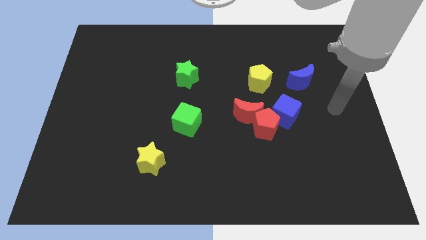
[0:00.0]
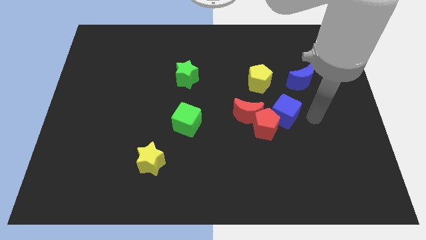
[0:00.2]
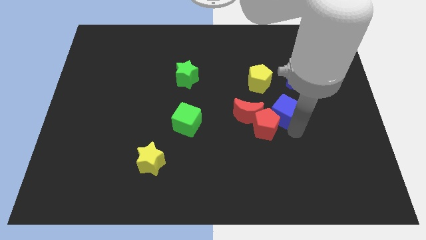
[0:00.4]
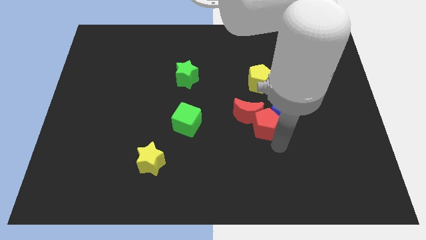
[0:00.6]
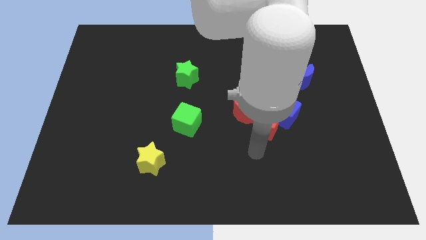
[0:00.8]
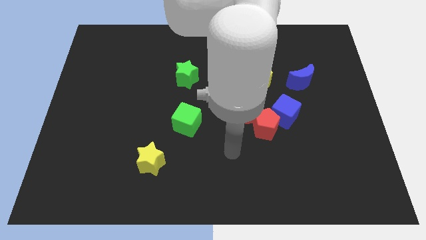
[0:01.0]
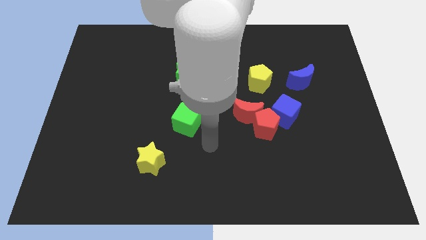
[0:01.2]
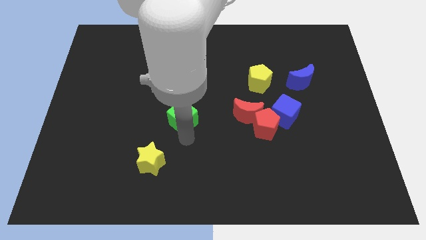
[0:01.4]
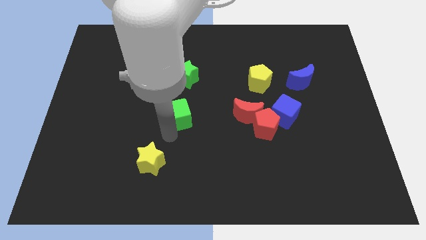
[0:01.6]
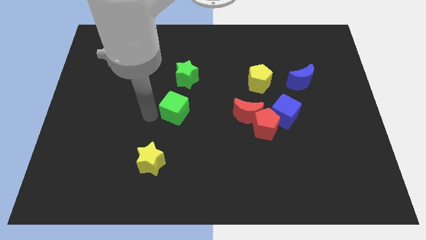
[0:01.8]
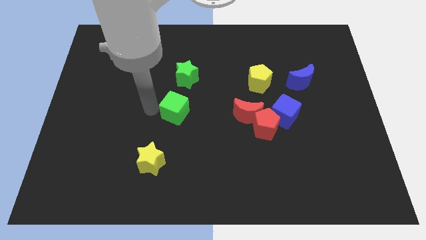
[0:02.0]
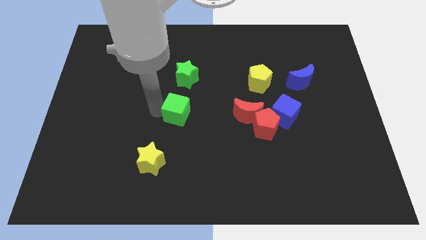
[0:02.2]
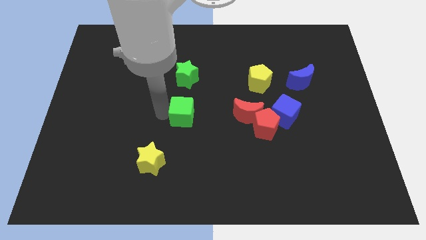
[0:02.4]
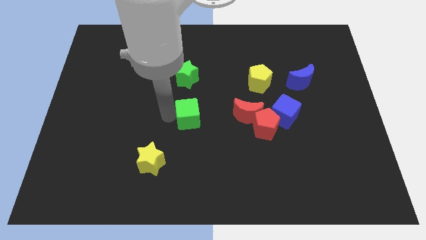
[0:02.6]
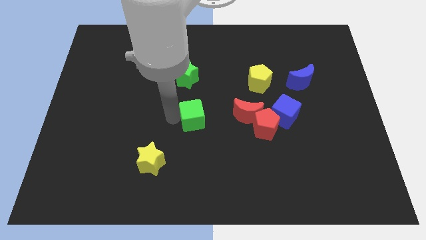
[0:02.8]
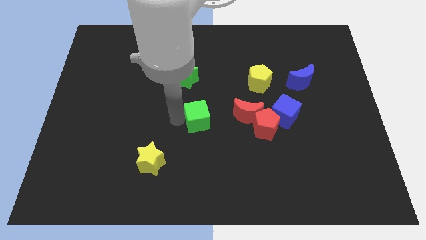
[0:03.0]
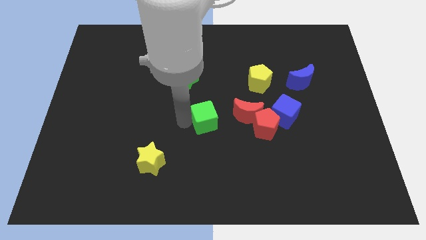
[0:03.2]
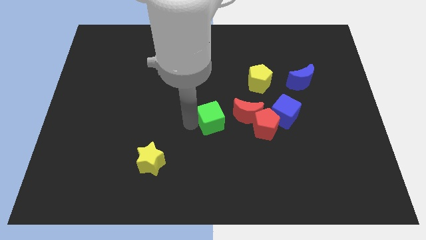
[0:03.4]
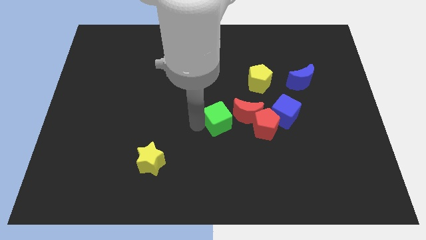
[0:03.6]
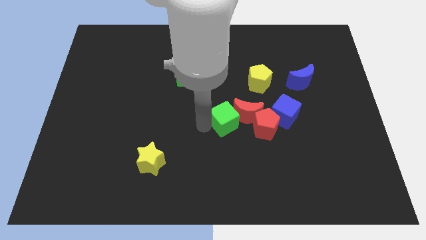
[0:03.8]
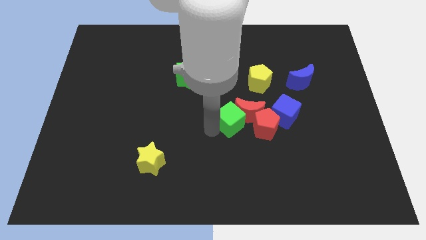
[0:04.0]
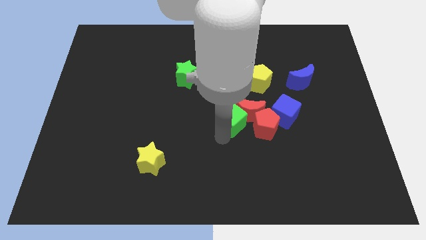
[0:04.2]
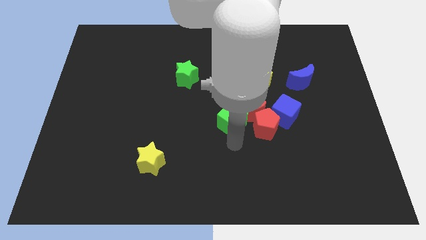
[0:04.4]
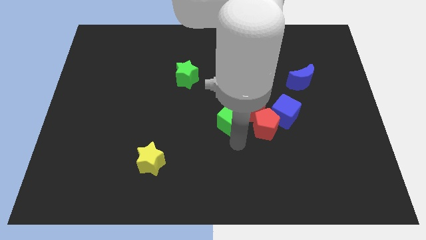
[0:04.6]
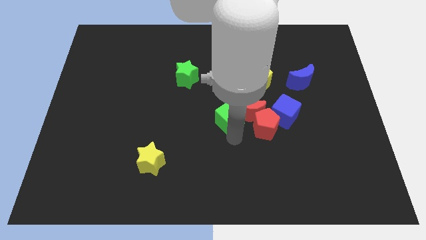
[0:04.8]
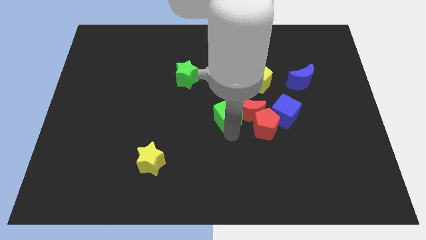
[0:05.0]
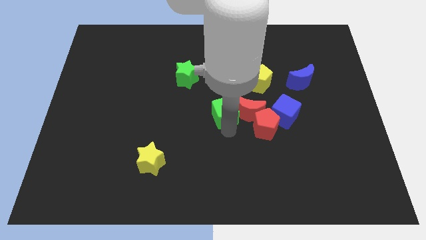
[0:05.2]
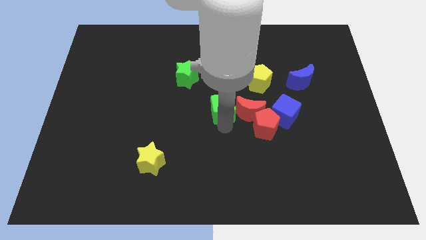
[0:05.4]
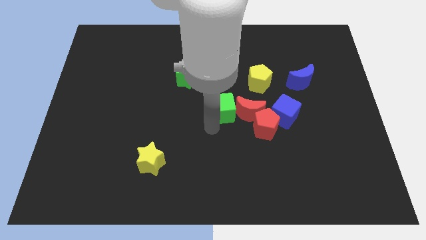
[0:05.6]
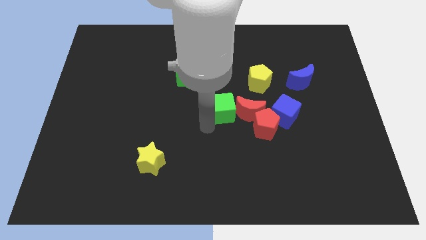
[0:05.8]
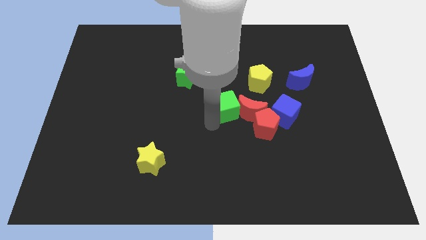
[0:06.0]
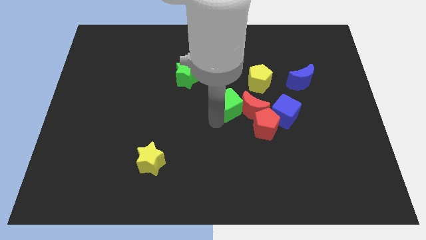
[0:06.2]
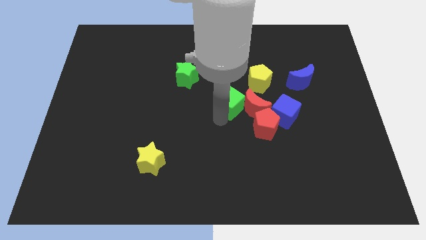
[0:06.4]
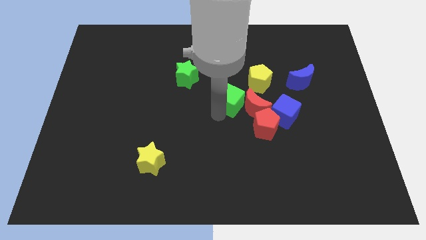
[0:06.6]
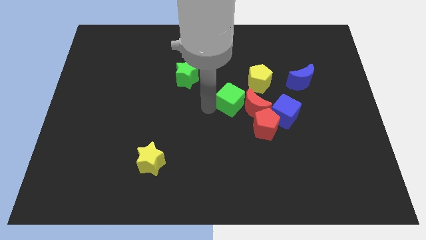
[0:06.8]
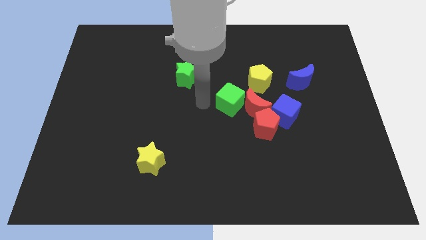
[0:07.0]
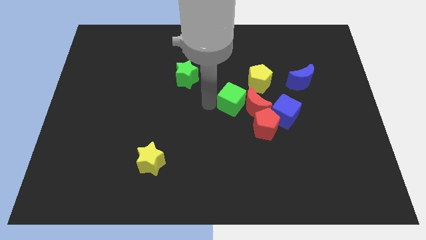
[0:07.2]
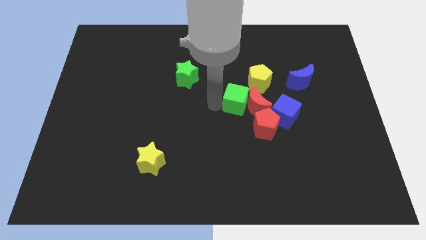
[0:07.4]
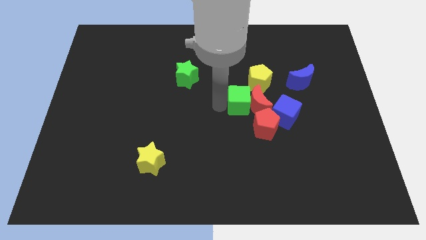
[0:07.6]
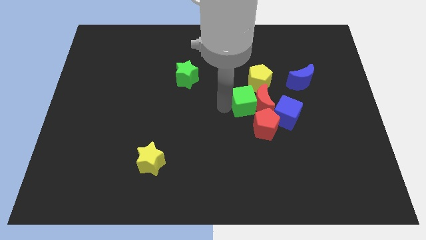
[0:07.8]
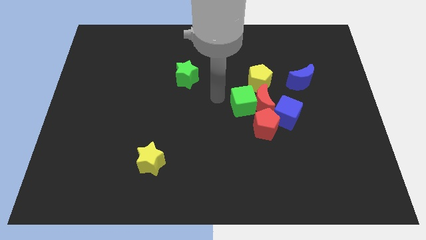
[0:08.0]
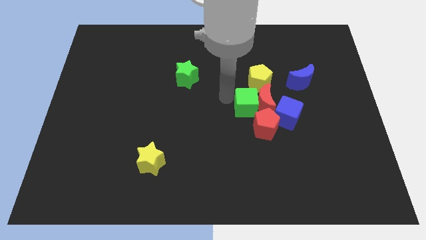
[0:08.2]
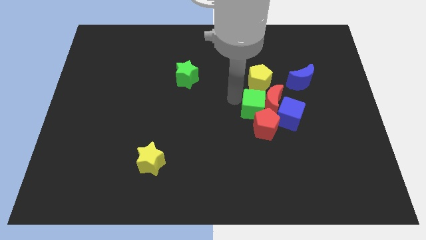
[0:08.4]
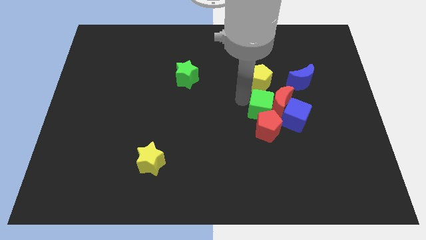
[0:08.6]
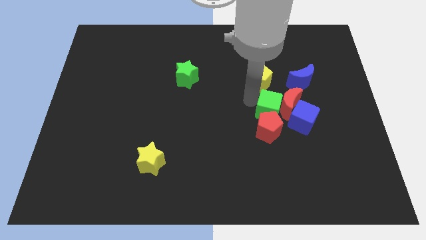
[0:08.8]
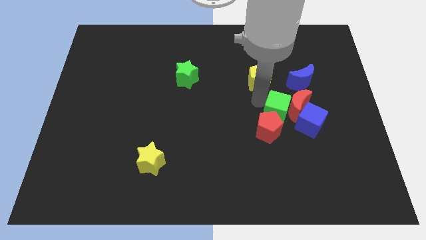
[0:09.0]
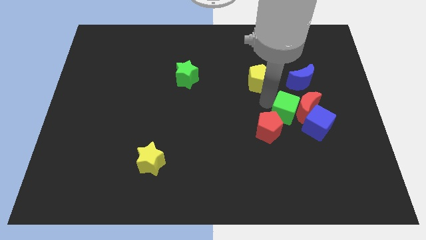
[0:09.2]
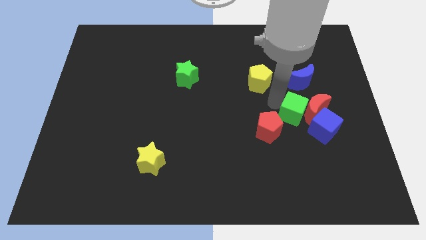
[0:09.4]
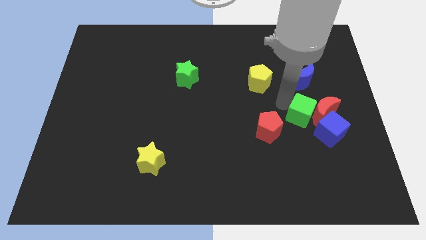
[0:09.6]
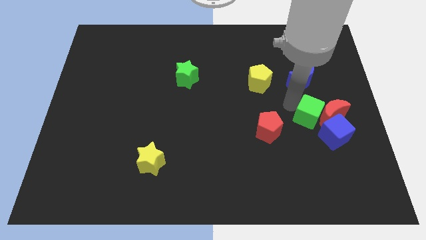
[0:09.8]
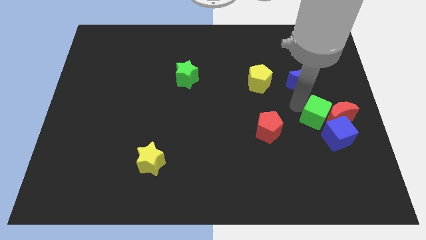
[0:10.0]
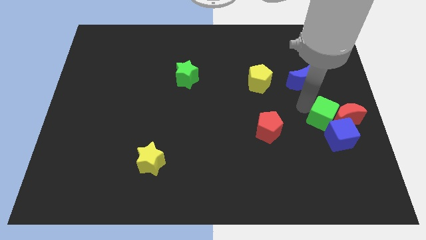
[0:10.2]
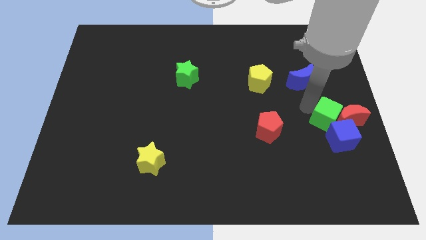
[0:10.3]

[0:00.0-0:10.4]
push the green cube next to the blue cube

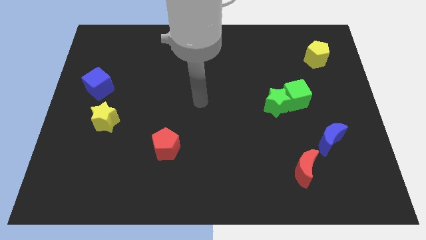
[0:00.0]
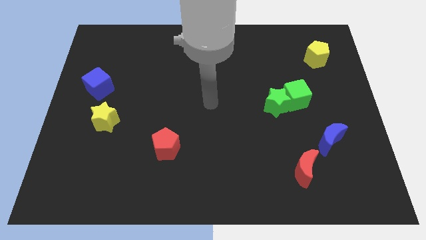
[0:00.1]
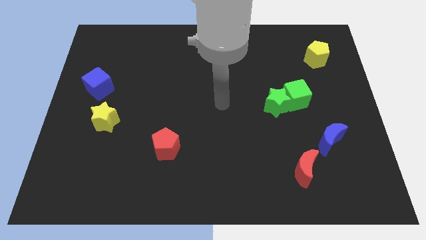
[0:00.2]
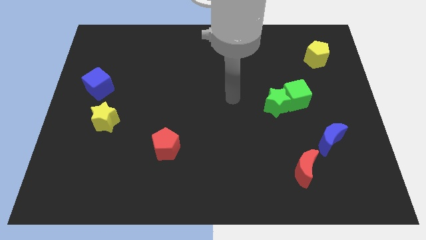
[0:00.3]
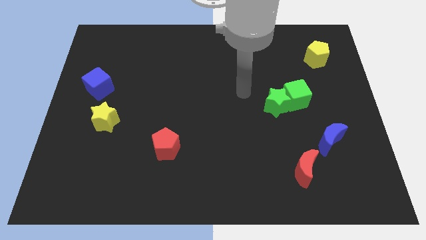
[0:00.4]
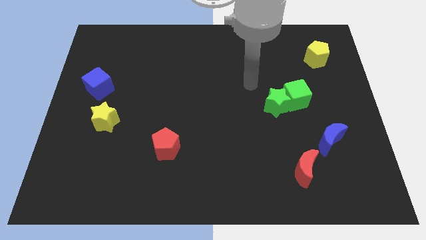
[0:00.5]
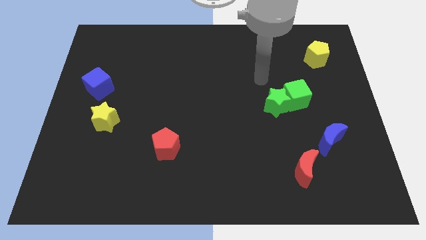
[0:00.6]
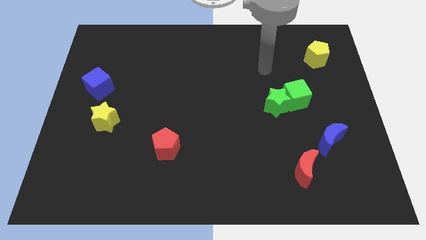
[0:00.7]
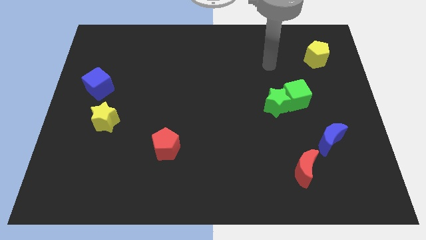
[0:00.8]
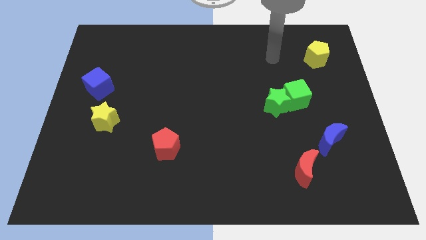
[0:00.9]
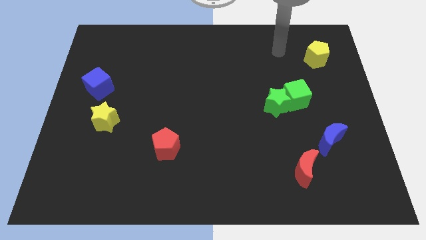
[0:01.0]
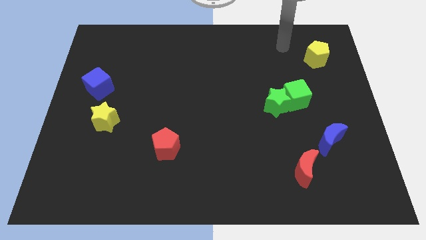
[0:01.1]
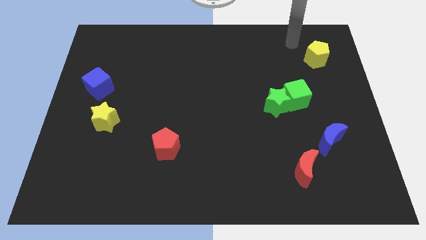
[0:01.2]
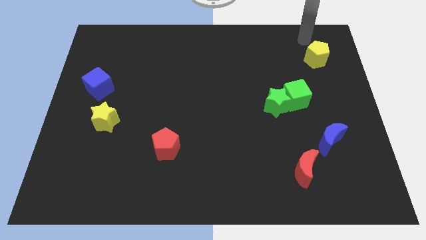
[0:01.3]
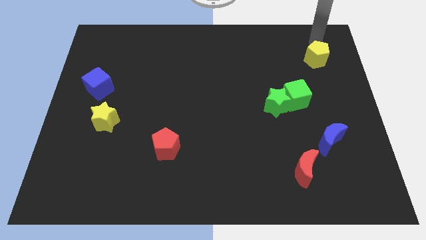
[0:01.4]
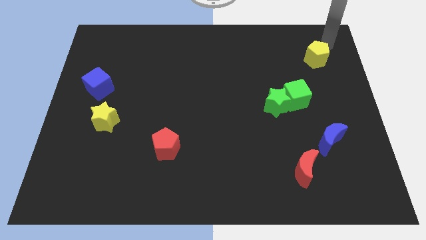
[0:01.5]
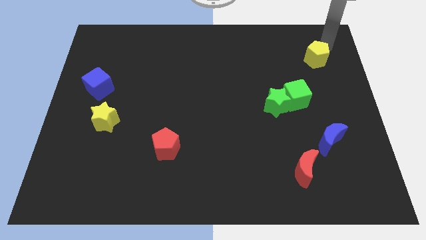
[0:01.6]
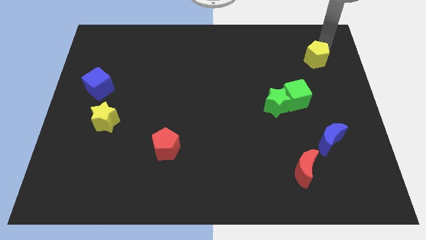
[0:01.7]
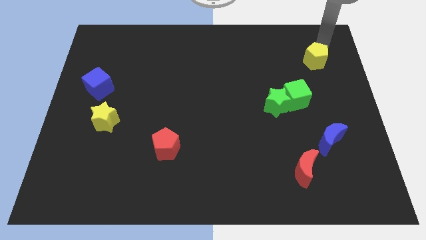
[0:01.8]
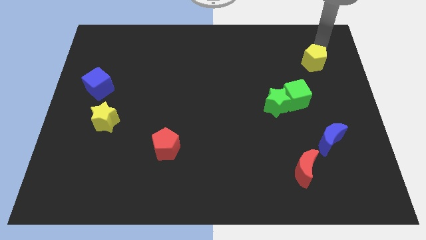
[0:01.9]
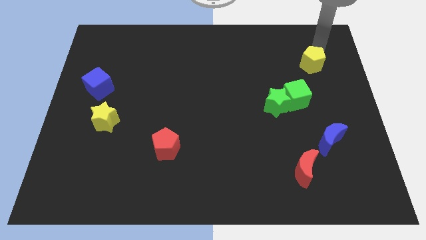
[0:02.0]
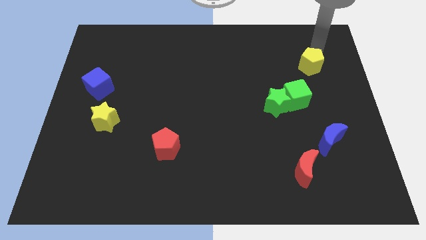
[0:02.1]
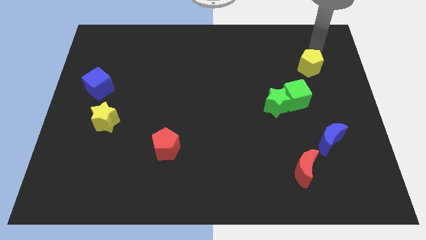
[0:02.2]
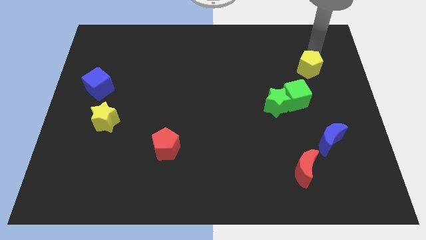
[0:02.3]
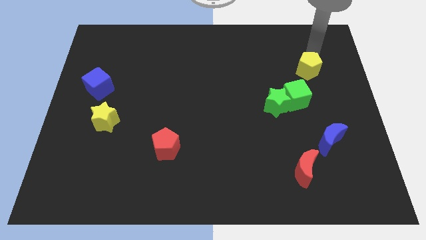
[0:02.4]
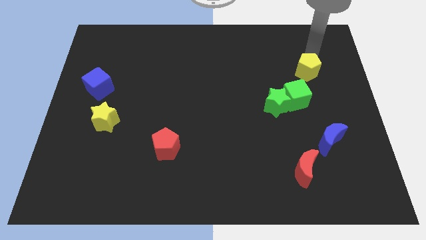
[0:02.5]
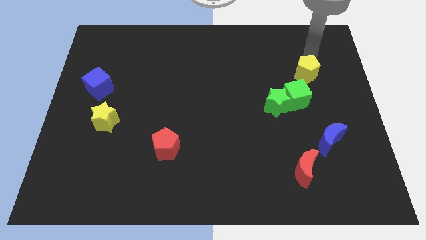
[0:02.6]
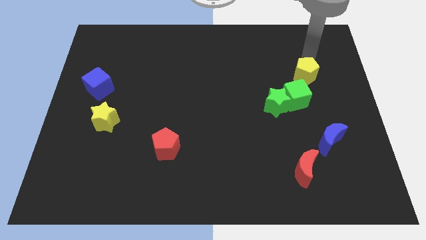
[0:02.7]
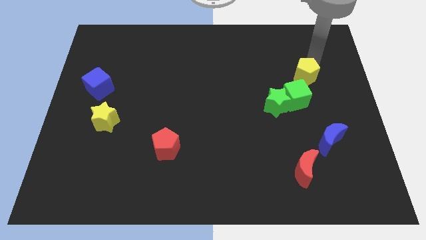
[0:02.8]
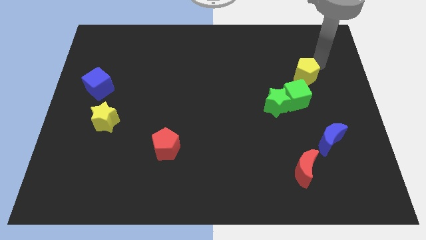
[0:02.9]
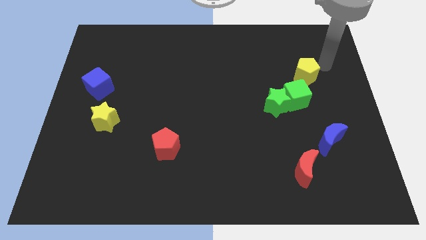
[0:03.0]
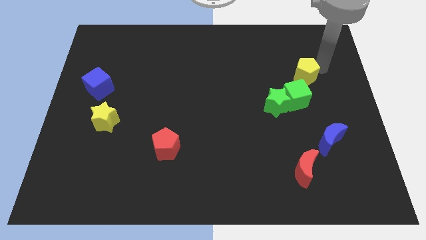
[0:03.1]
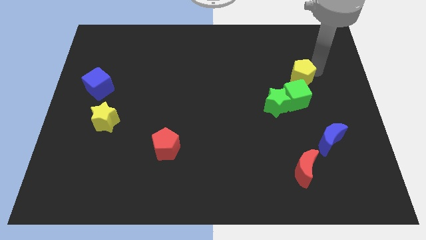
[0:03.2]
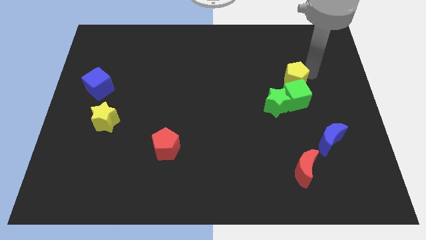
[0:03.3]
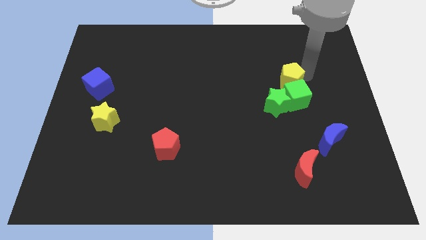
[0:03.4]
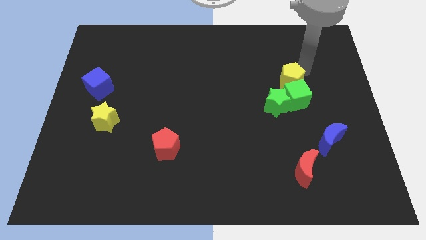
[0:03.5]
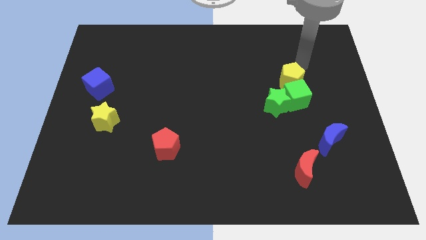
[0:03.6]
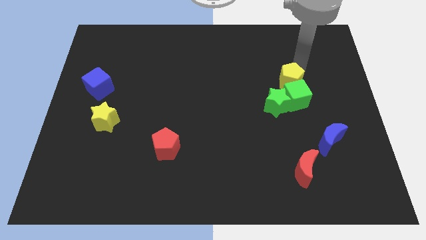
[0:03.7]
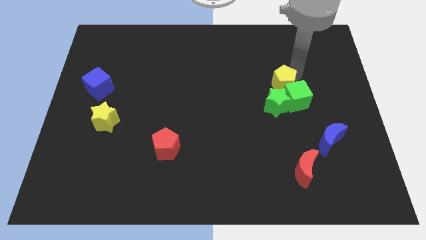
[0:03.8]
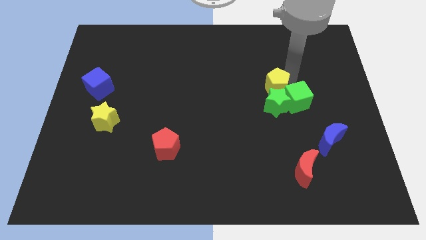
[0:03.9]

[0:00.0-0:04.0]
put the yellow pentagon to the green star
